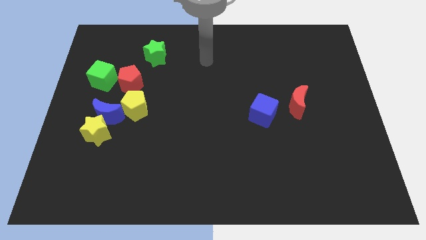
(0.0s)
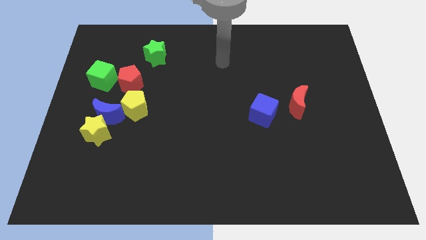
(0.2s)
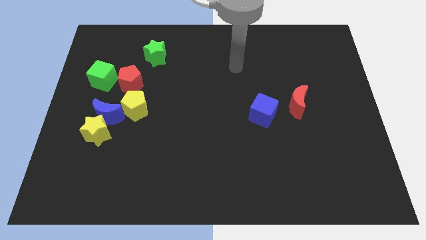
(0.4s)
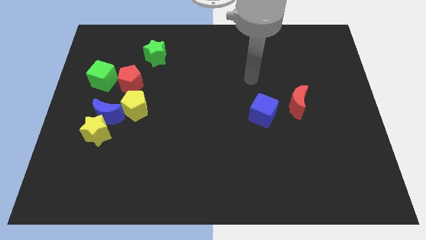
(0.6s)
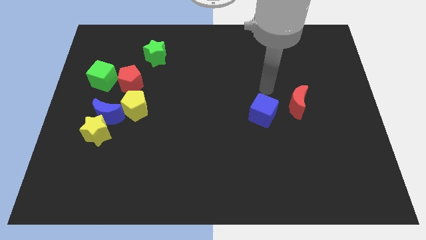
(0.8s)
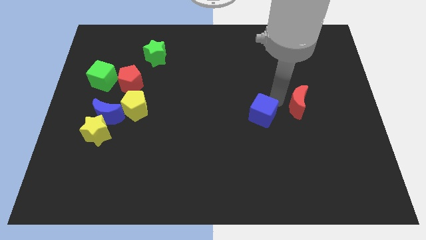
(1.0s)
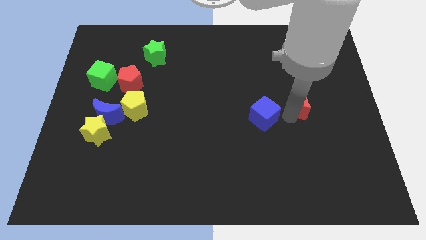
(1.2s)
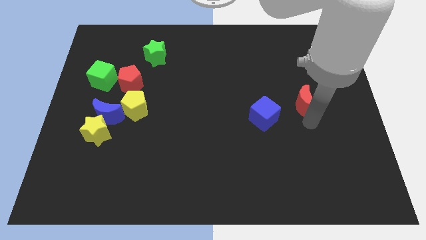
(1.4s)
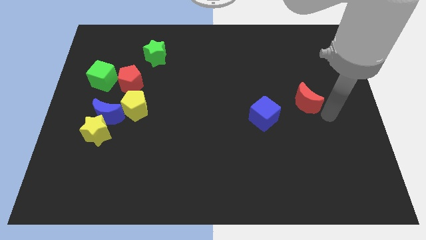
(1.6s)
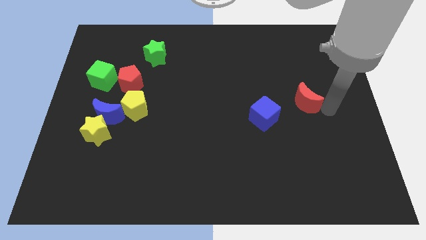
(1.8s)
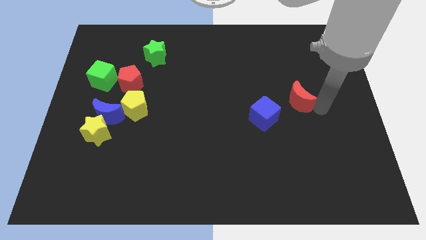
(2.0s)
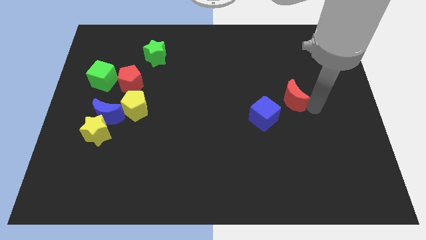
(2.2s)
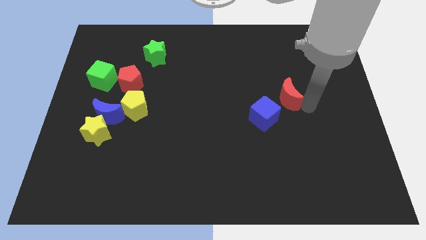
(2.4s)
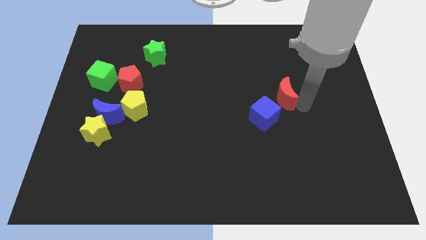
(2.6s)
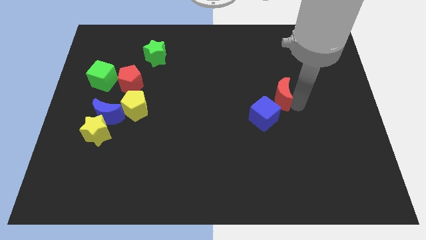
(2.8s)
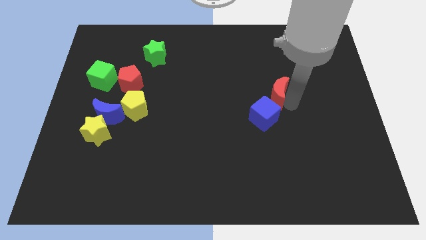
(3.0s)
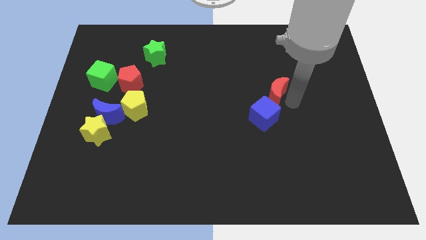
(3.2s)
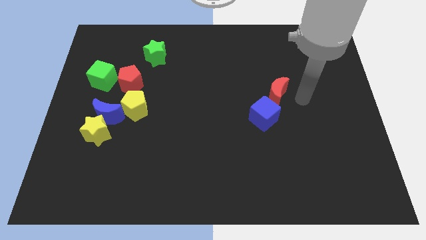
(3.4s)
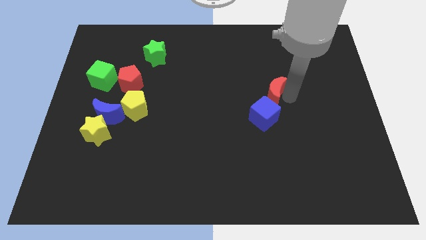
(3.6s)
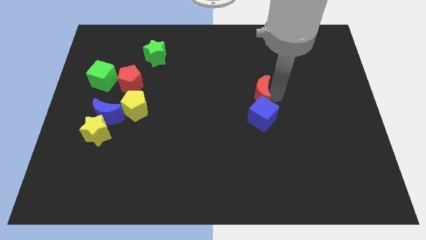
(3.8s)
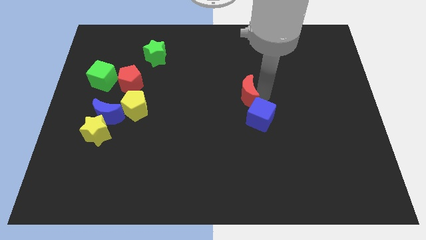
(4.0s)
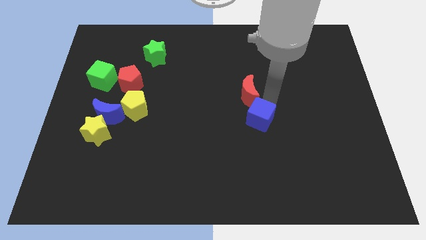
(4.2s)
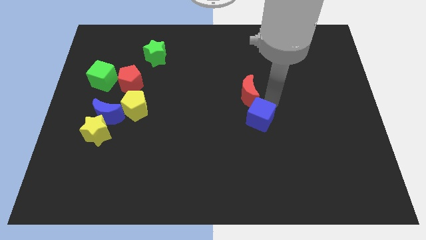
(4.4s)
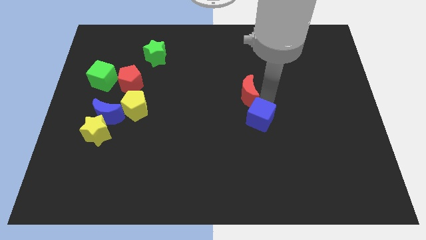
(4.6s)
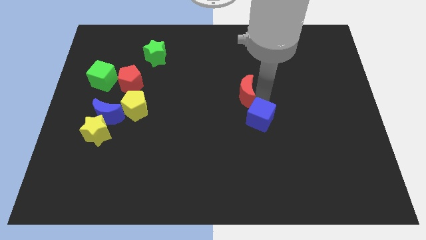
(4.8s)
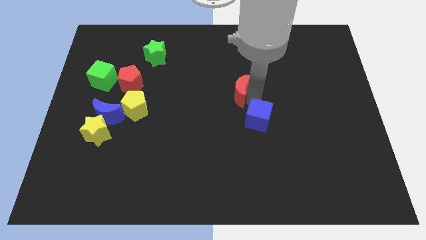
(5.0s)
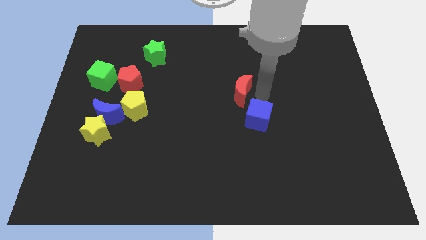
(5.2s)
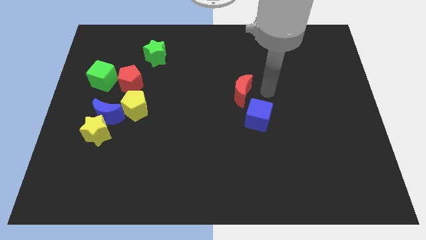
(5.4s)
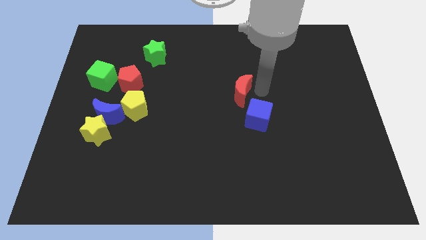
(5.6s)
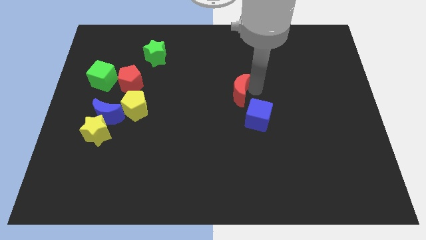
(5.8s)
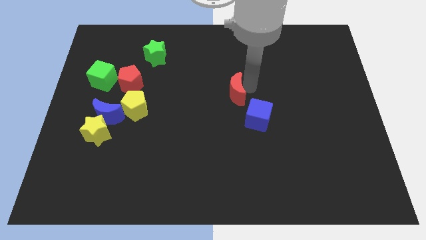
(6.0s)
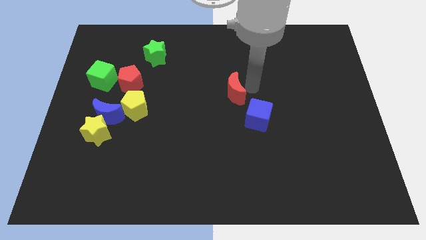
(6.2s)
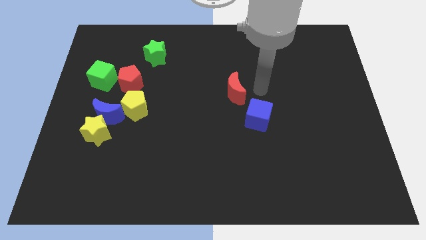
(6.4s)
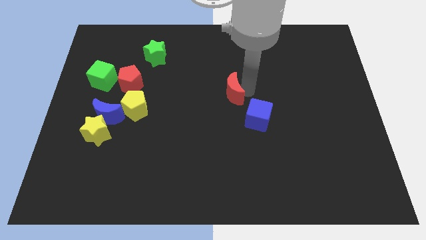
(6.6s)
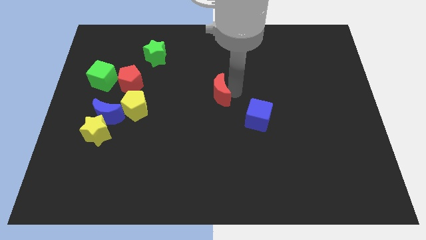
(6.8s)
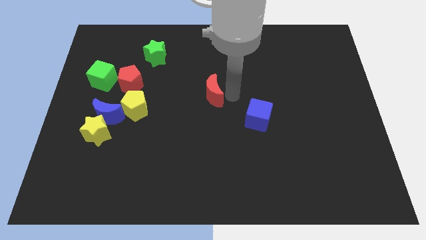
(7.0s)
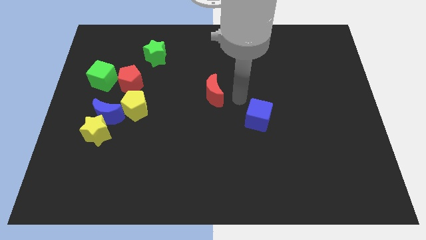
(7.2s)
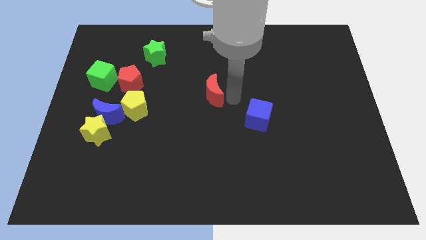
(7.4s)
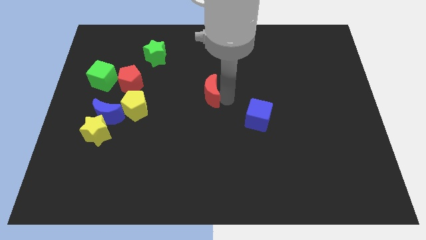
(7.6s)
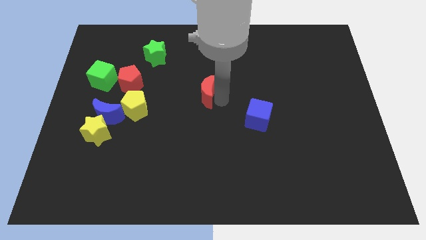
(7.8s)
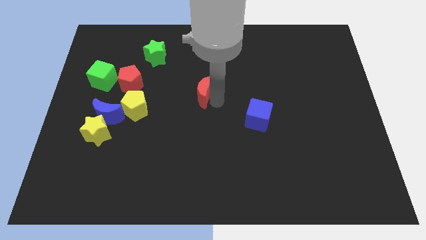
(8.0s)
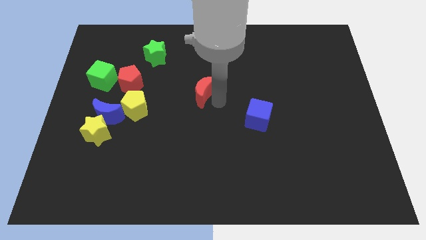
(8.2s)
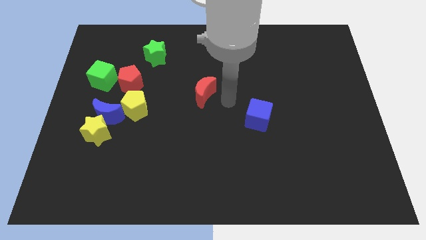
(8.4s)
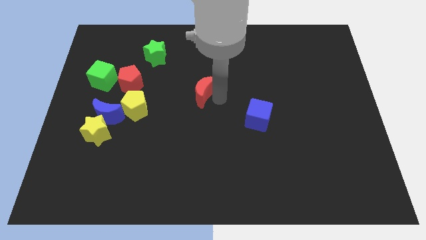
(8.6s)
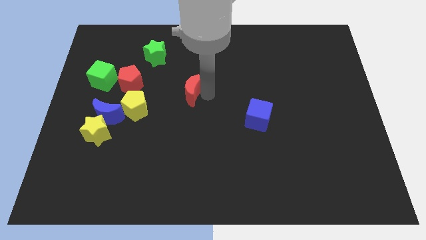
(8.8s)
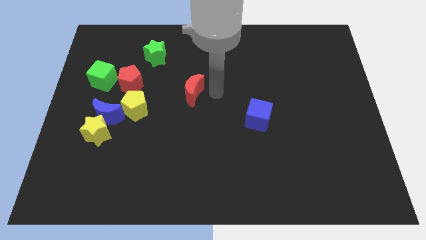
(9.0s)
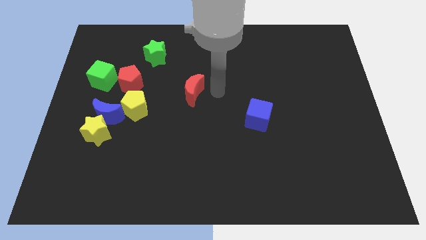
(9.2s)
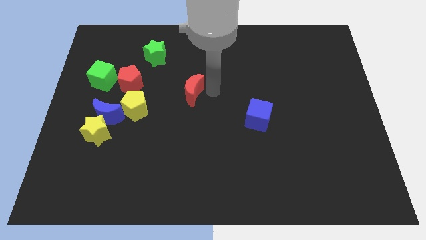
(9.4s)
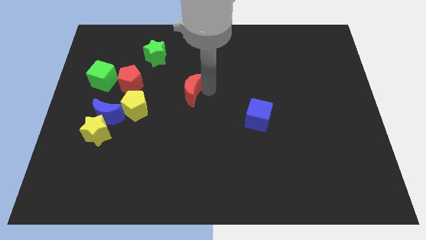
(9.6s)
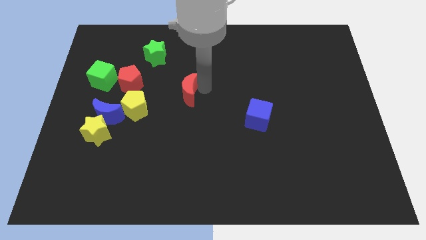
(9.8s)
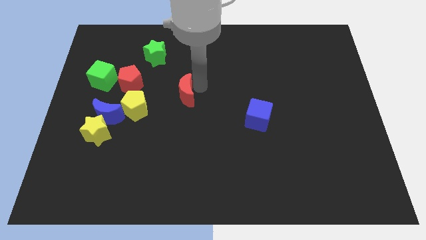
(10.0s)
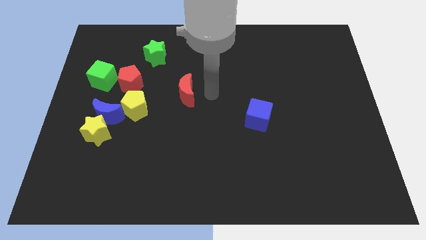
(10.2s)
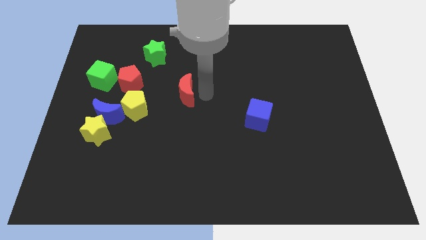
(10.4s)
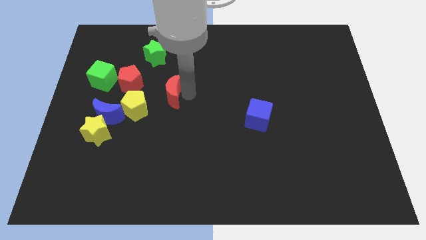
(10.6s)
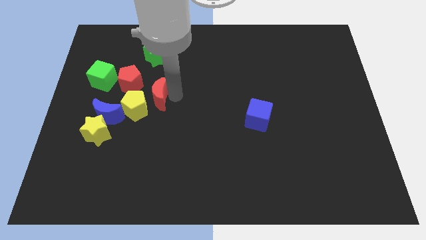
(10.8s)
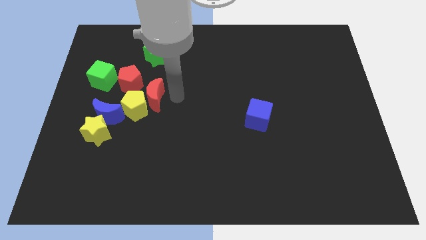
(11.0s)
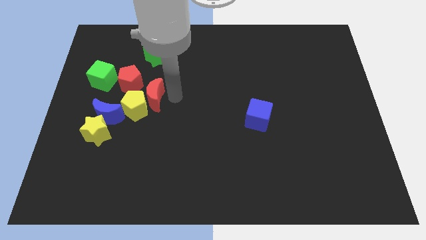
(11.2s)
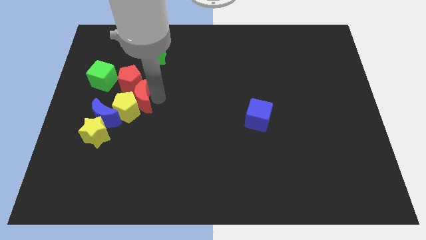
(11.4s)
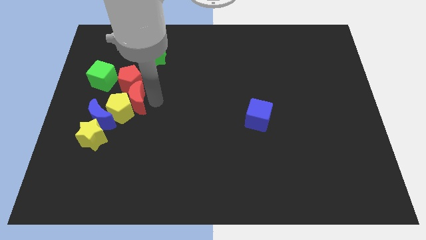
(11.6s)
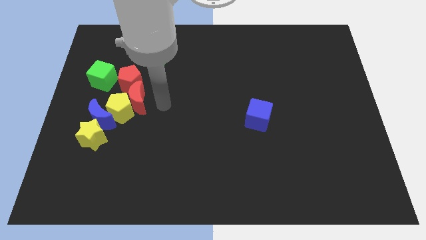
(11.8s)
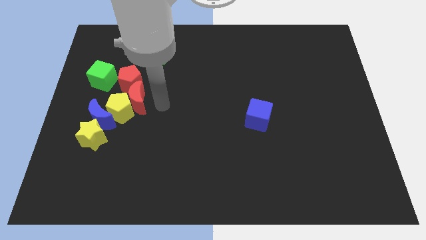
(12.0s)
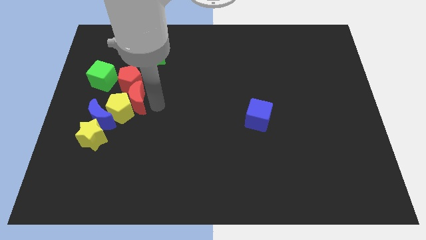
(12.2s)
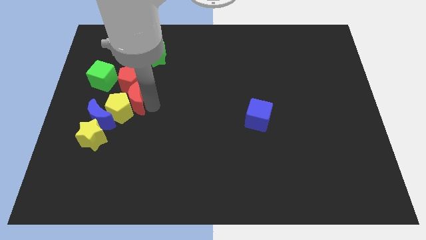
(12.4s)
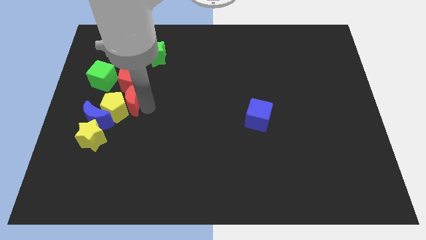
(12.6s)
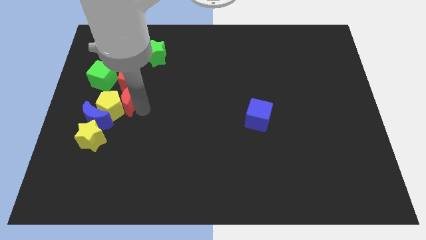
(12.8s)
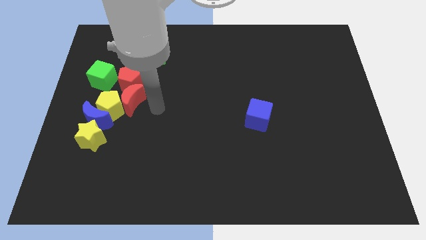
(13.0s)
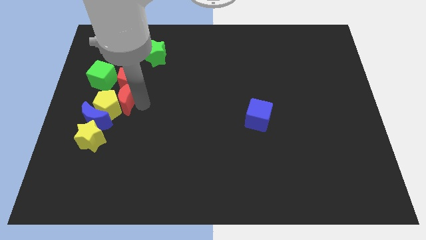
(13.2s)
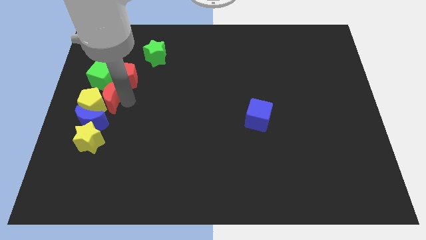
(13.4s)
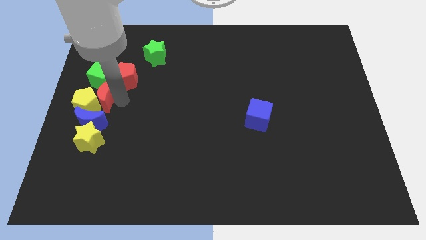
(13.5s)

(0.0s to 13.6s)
push the red moon to the center left
